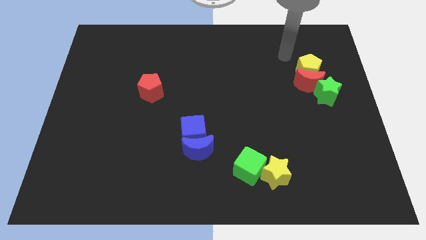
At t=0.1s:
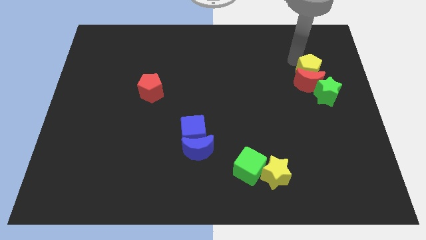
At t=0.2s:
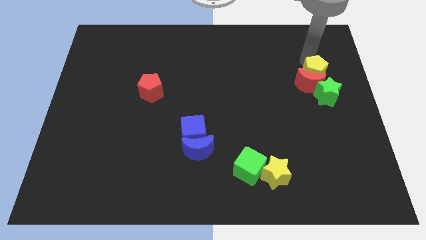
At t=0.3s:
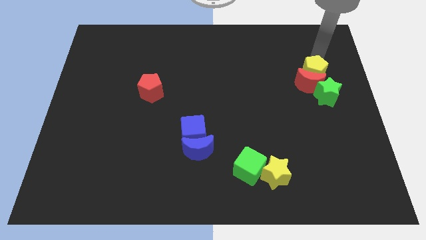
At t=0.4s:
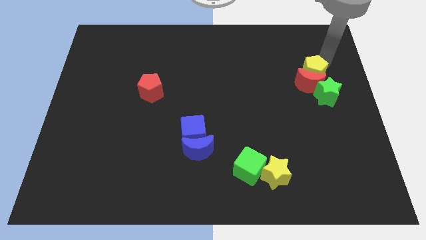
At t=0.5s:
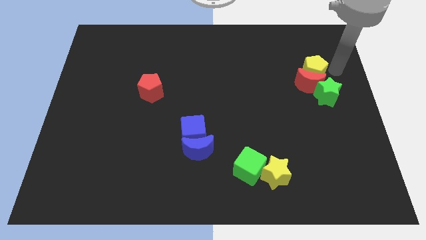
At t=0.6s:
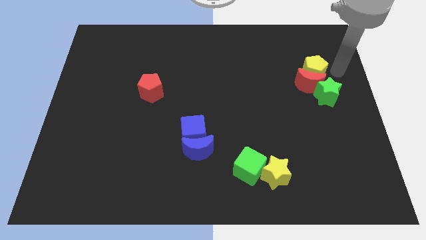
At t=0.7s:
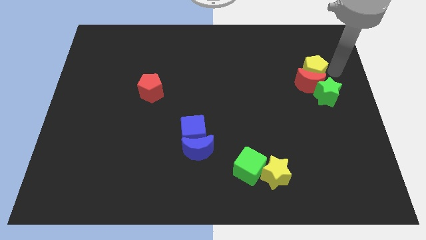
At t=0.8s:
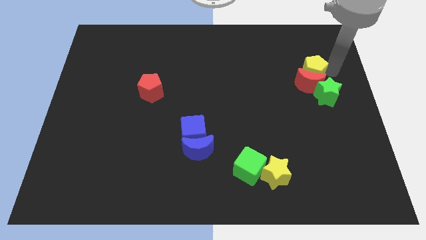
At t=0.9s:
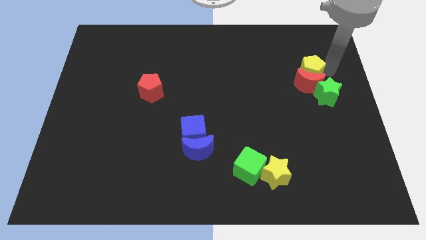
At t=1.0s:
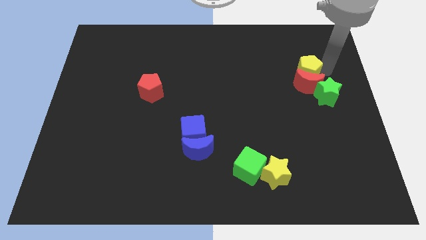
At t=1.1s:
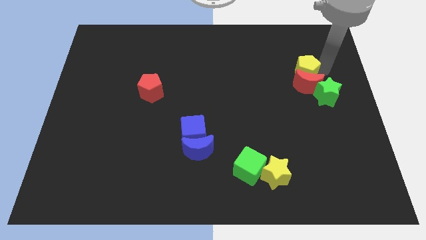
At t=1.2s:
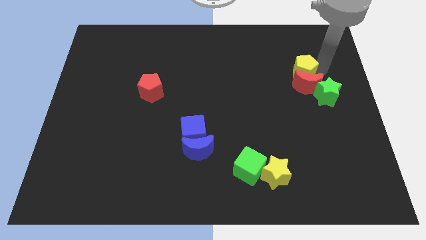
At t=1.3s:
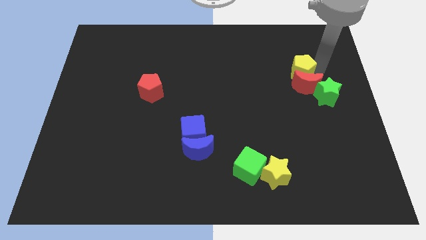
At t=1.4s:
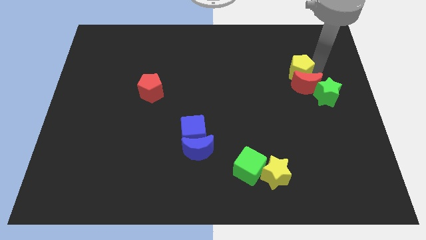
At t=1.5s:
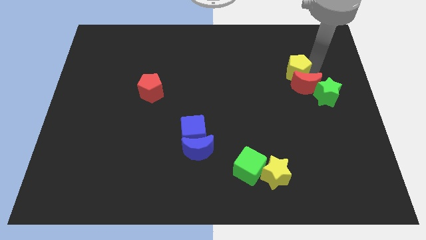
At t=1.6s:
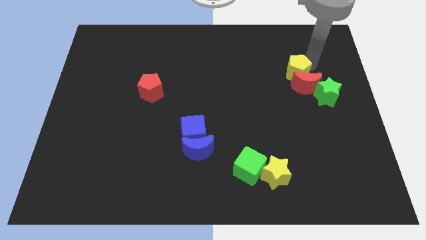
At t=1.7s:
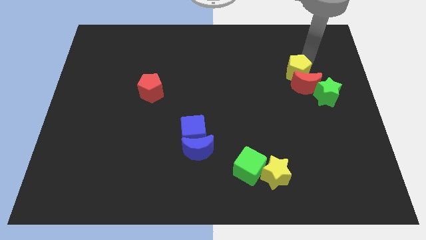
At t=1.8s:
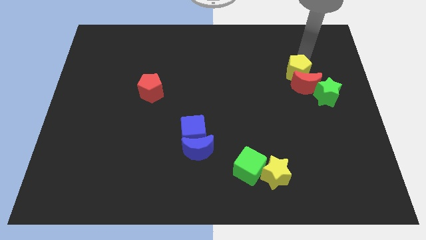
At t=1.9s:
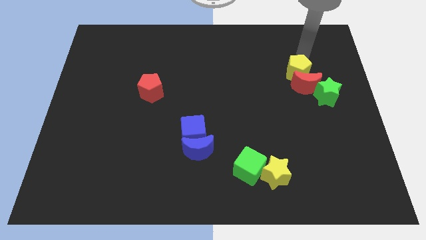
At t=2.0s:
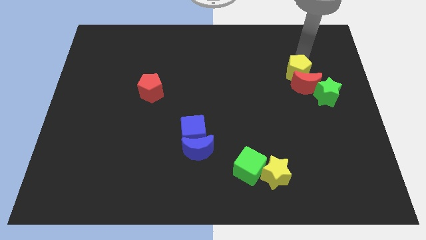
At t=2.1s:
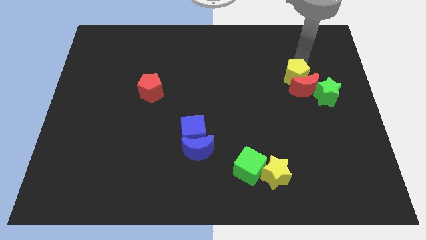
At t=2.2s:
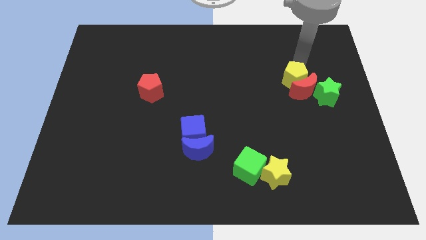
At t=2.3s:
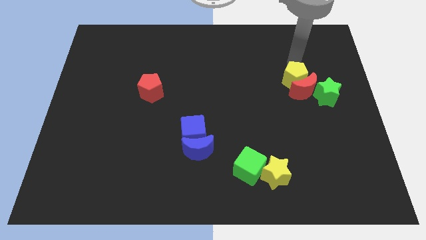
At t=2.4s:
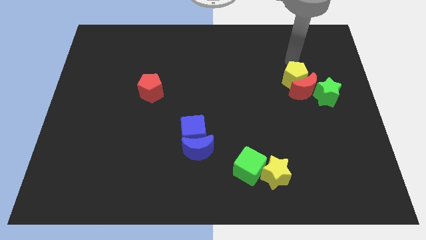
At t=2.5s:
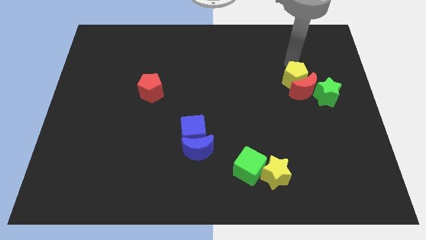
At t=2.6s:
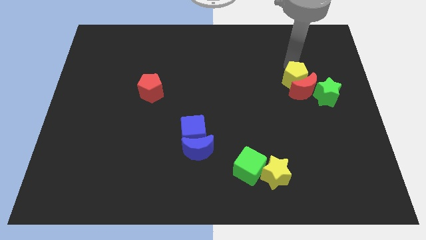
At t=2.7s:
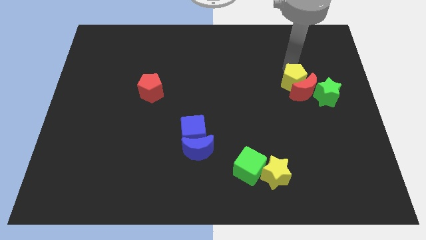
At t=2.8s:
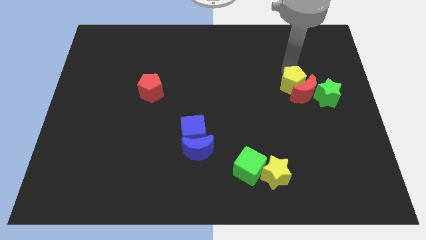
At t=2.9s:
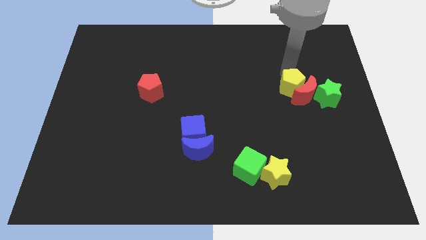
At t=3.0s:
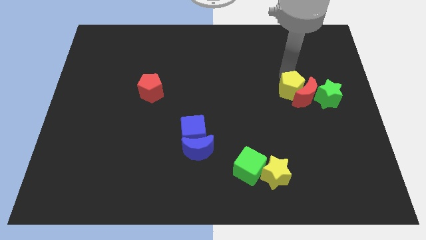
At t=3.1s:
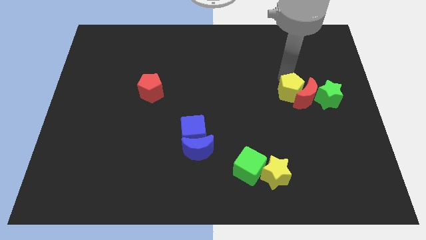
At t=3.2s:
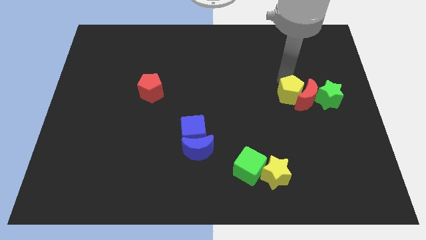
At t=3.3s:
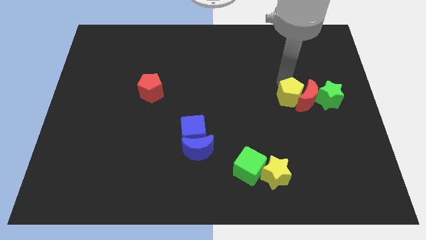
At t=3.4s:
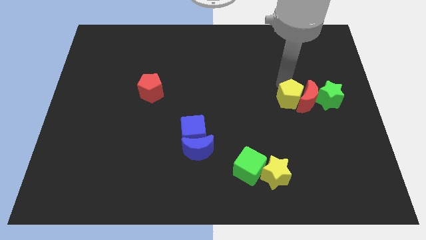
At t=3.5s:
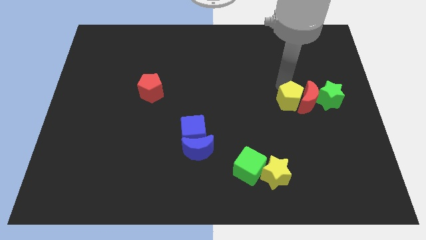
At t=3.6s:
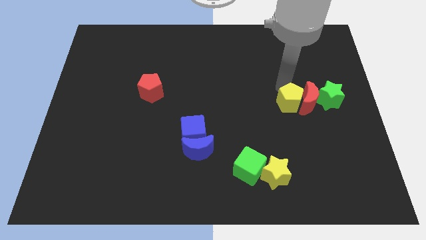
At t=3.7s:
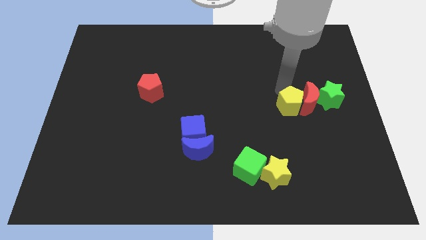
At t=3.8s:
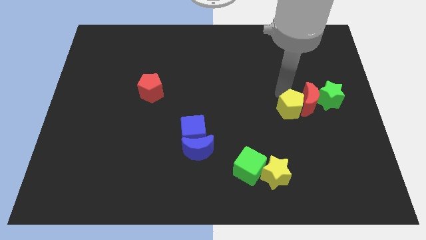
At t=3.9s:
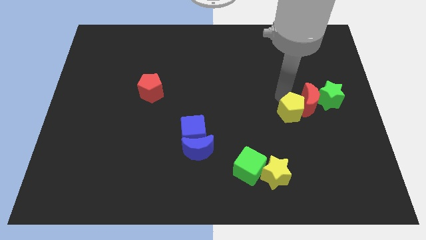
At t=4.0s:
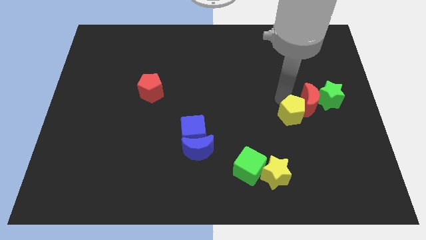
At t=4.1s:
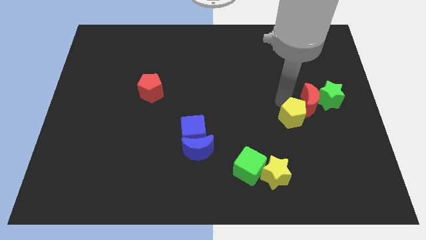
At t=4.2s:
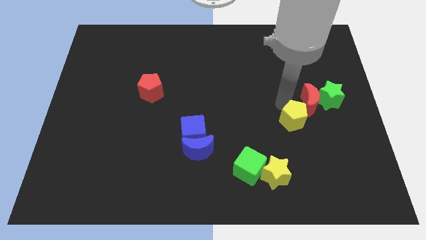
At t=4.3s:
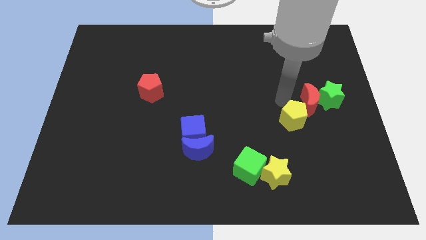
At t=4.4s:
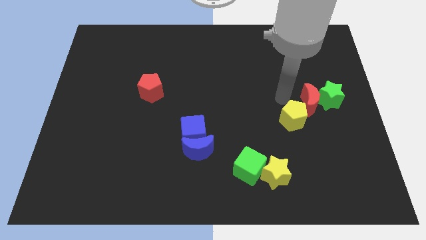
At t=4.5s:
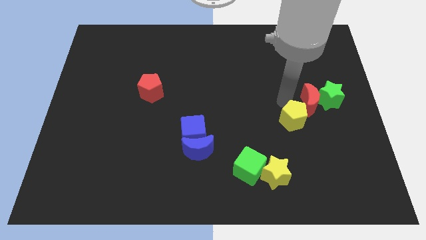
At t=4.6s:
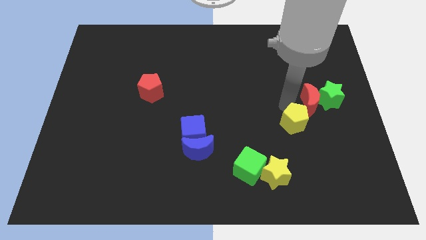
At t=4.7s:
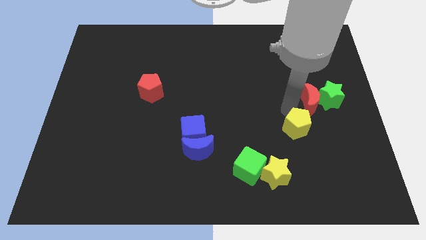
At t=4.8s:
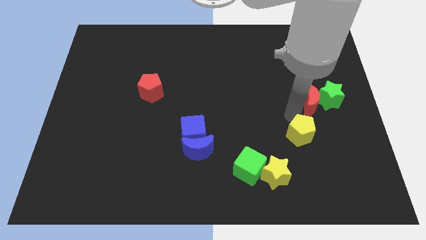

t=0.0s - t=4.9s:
push the yellow pentagon to the top right side of the yellow star

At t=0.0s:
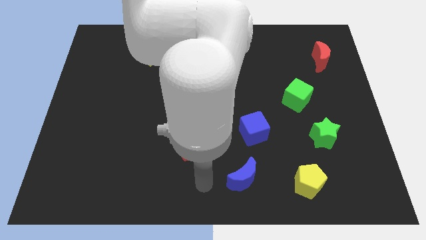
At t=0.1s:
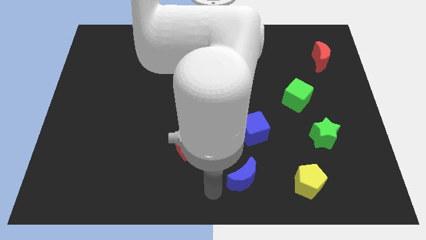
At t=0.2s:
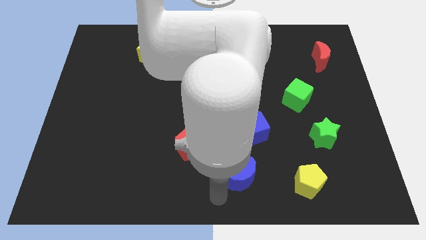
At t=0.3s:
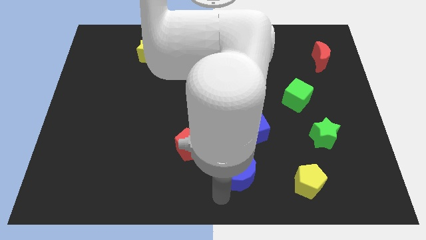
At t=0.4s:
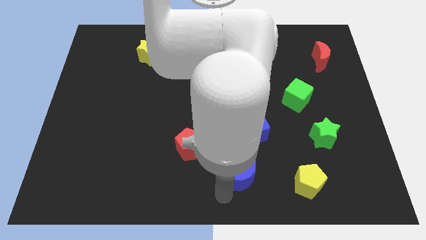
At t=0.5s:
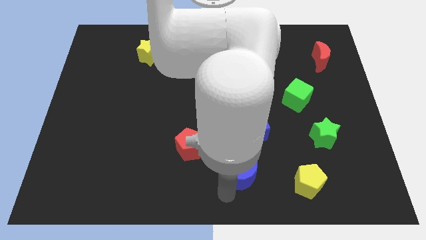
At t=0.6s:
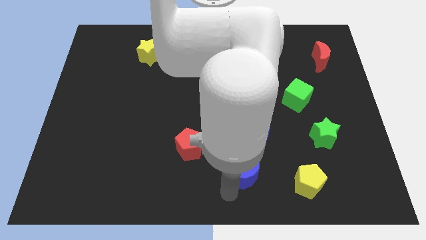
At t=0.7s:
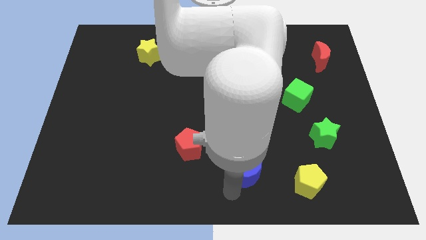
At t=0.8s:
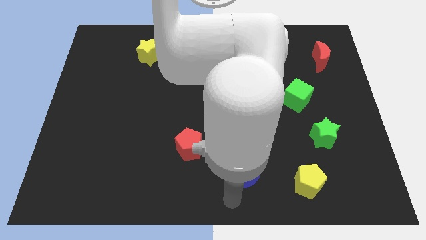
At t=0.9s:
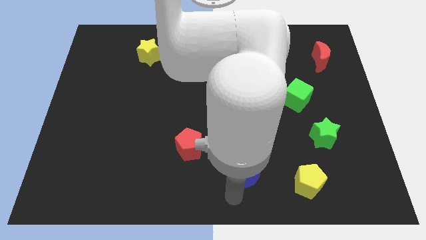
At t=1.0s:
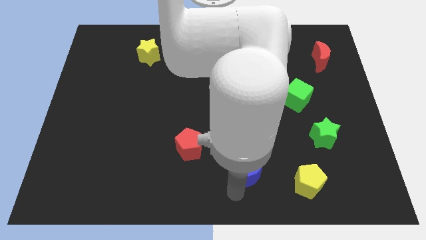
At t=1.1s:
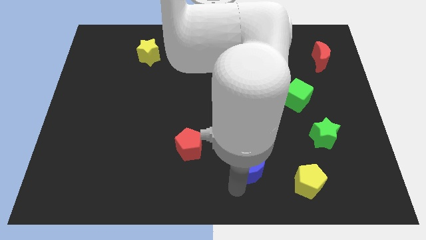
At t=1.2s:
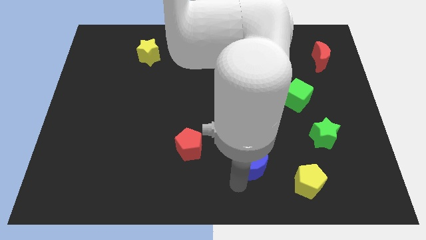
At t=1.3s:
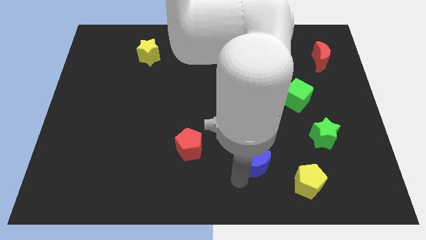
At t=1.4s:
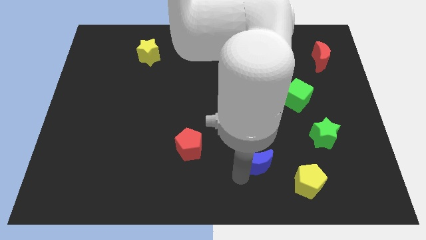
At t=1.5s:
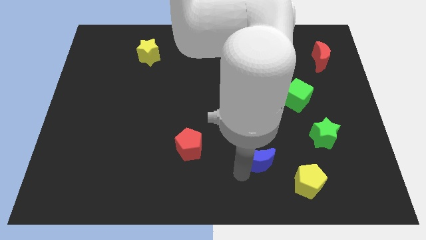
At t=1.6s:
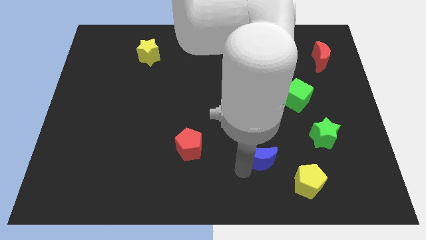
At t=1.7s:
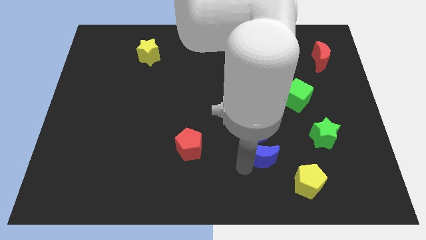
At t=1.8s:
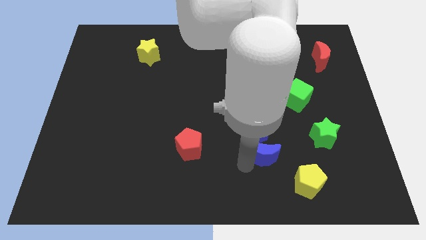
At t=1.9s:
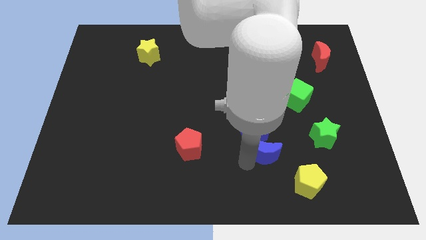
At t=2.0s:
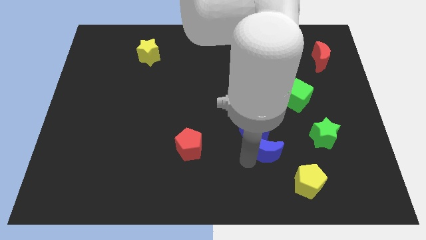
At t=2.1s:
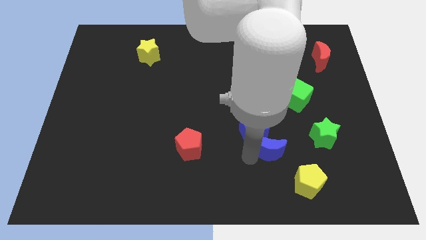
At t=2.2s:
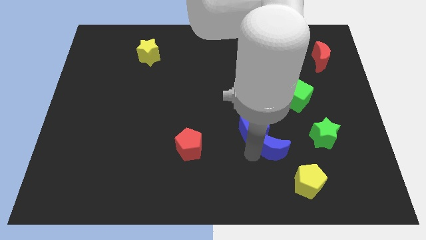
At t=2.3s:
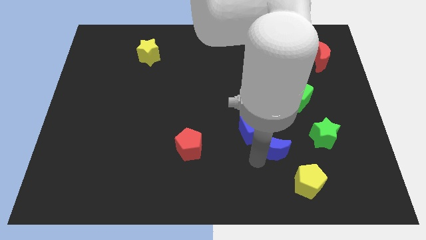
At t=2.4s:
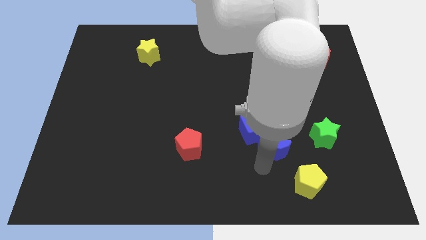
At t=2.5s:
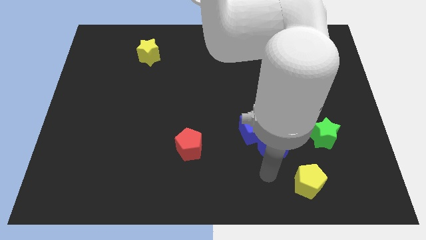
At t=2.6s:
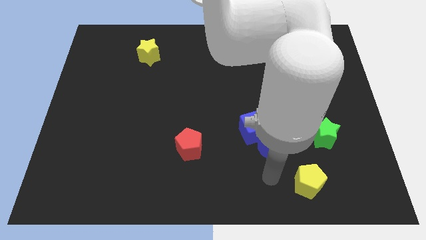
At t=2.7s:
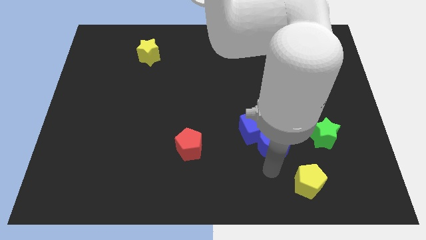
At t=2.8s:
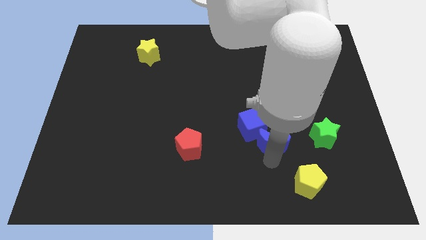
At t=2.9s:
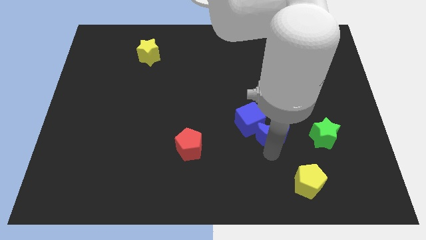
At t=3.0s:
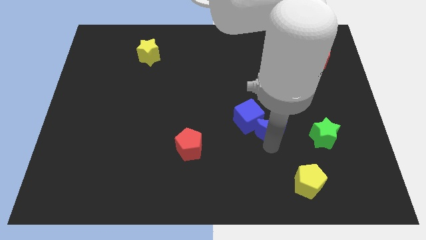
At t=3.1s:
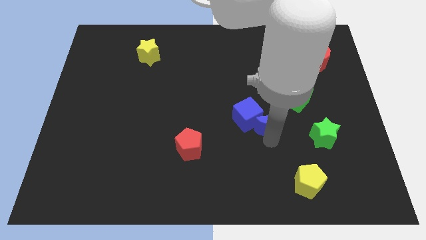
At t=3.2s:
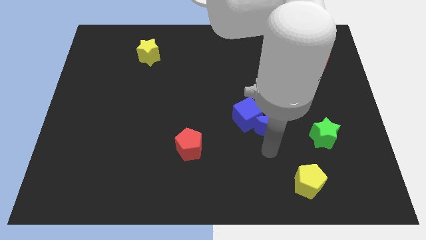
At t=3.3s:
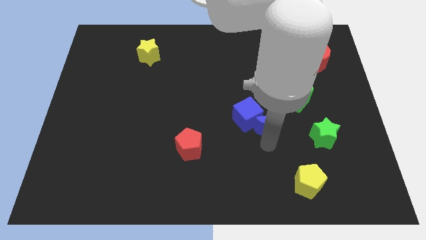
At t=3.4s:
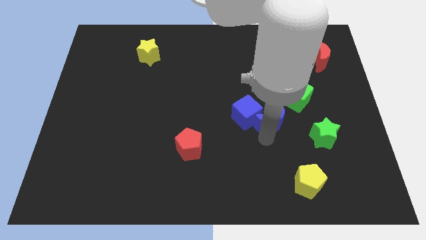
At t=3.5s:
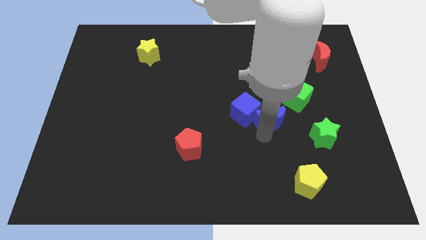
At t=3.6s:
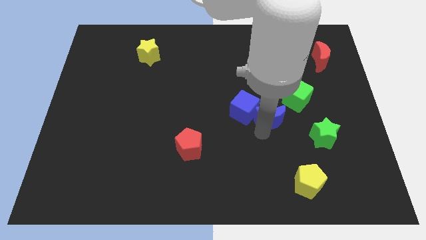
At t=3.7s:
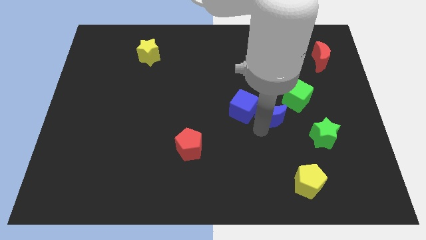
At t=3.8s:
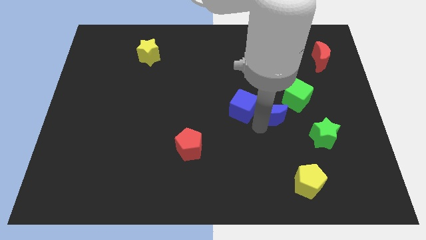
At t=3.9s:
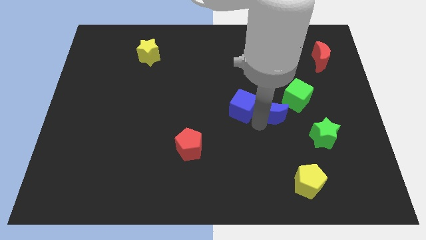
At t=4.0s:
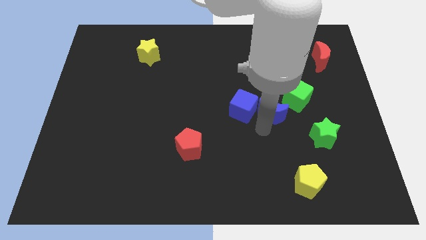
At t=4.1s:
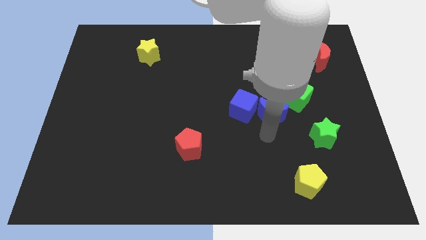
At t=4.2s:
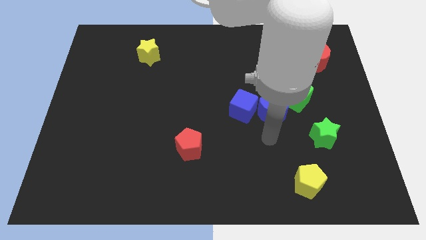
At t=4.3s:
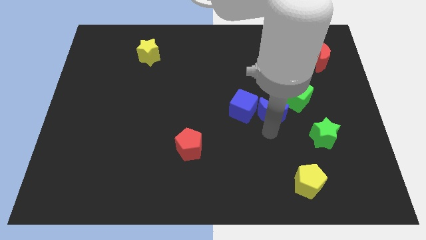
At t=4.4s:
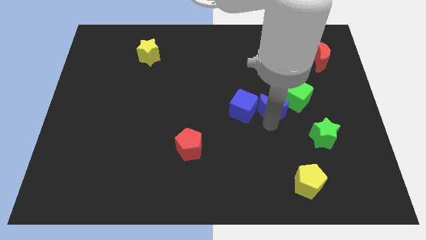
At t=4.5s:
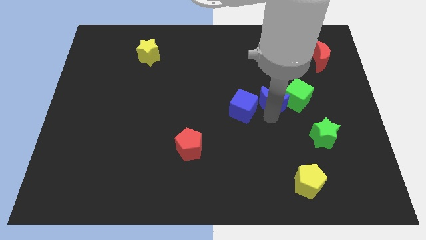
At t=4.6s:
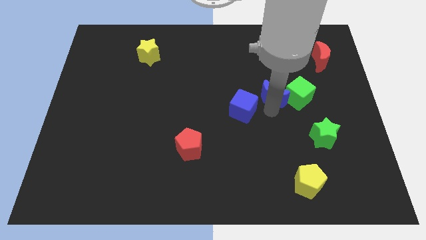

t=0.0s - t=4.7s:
move the blue moon diagonally up and to the left of the green cube
